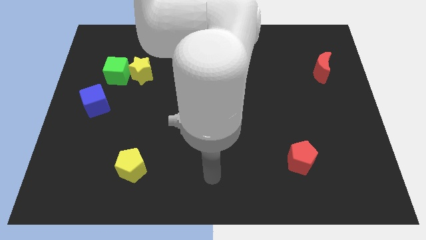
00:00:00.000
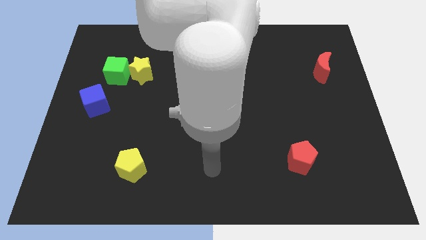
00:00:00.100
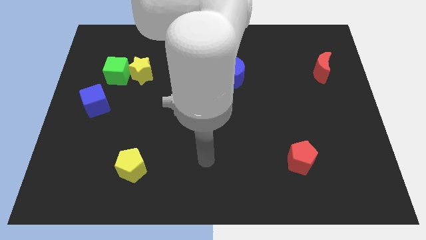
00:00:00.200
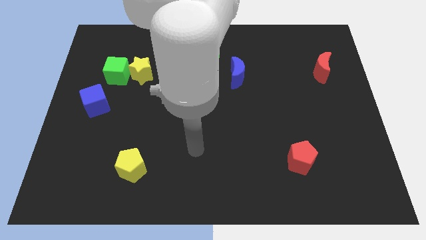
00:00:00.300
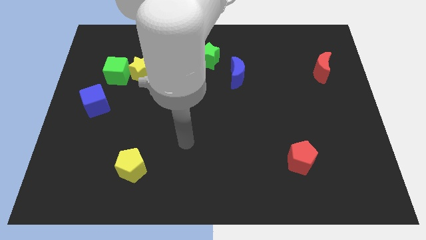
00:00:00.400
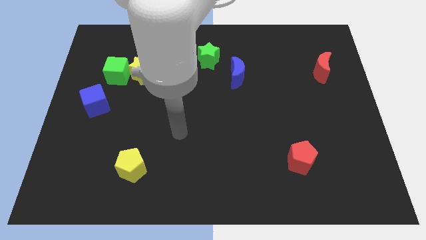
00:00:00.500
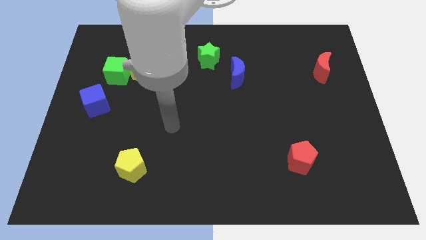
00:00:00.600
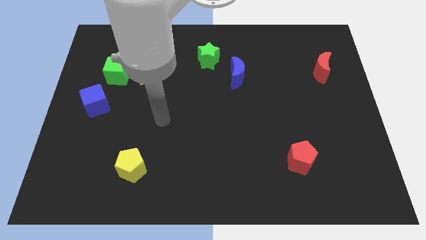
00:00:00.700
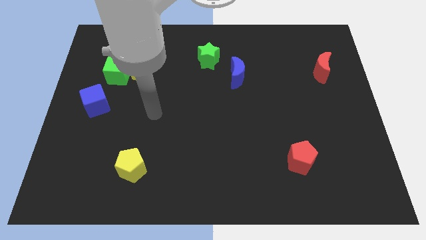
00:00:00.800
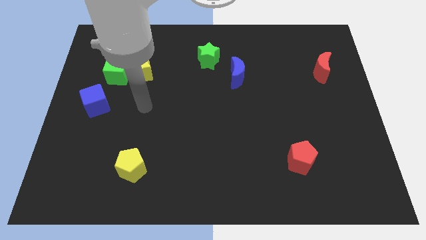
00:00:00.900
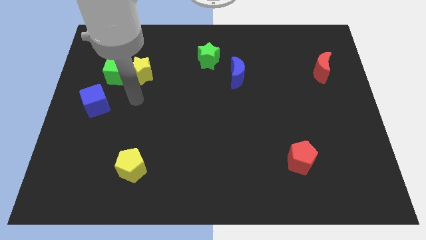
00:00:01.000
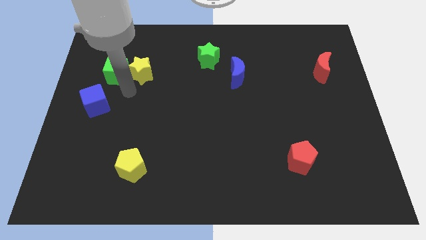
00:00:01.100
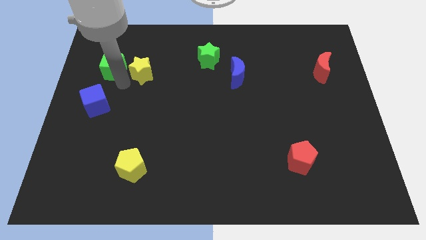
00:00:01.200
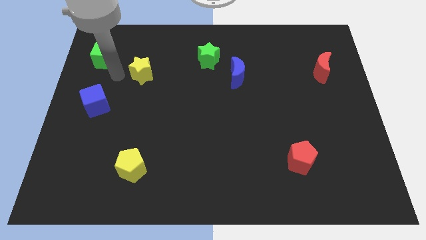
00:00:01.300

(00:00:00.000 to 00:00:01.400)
pull the yellow star apart from the green cube

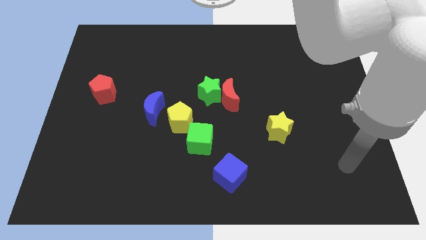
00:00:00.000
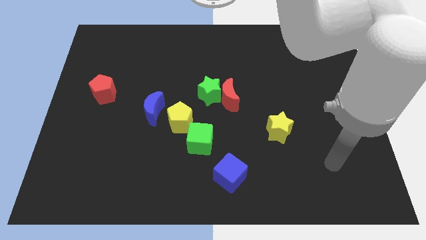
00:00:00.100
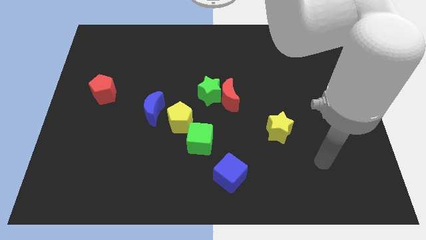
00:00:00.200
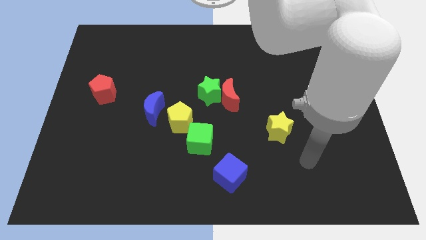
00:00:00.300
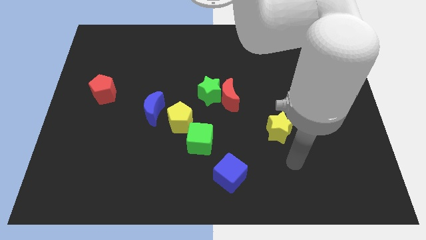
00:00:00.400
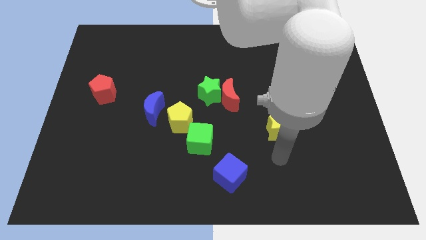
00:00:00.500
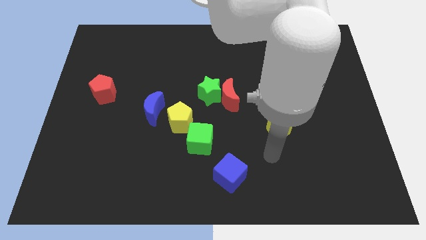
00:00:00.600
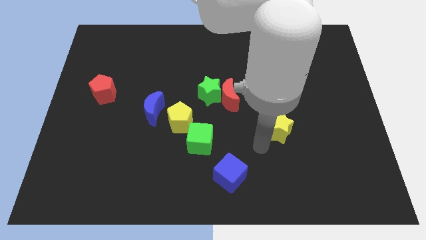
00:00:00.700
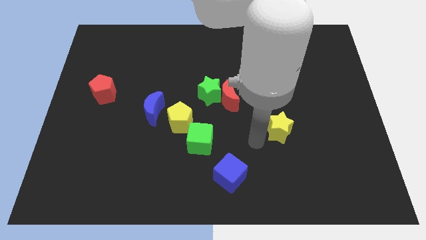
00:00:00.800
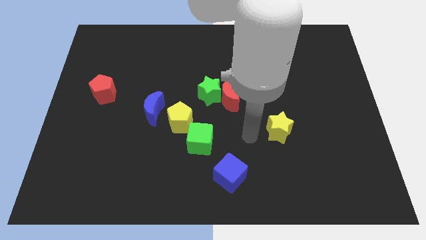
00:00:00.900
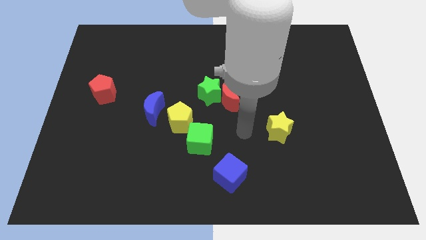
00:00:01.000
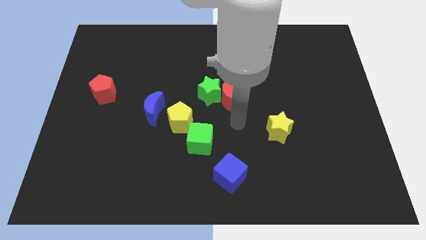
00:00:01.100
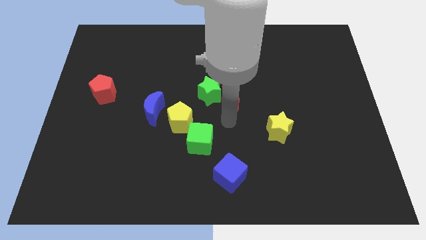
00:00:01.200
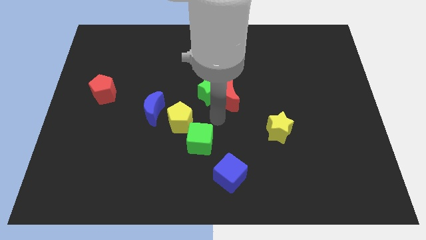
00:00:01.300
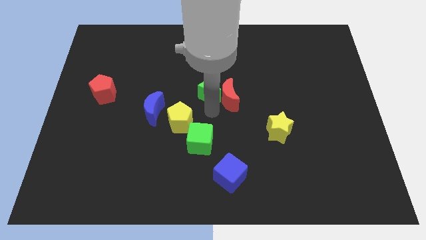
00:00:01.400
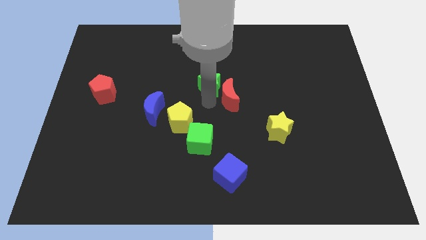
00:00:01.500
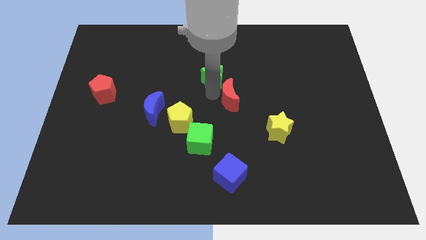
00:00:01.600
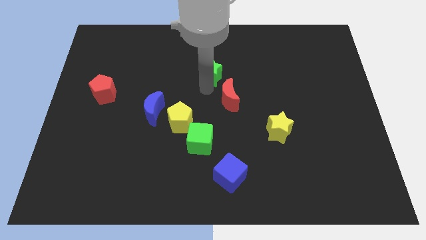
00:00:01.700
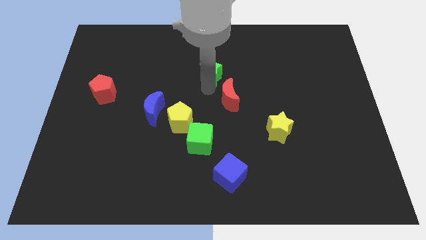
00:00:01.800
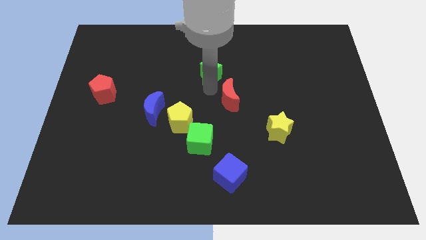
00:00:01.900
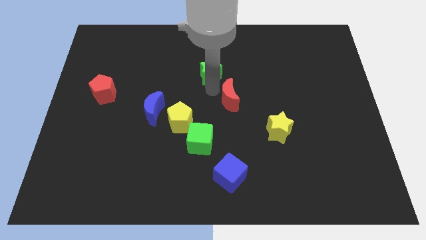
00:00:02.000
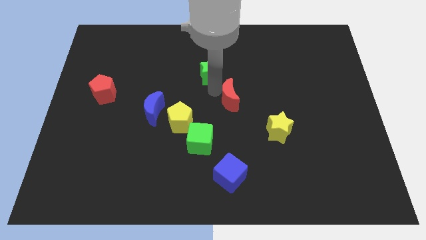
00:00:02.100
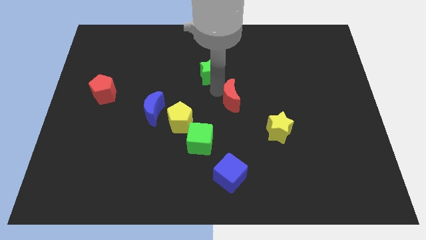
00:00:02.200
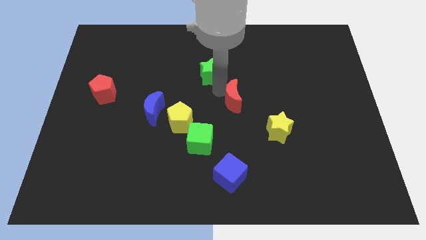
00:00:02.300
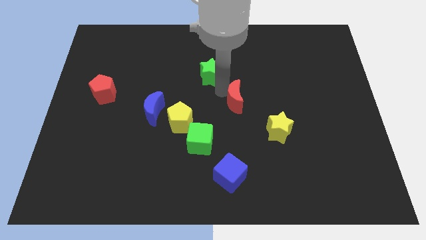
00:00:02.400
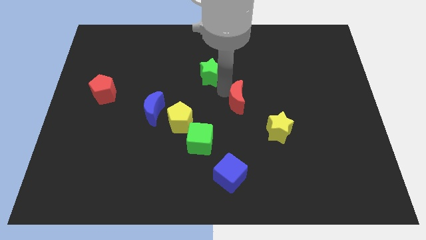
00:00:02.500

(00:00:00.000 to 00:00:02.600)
separate the red moon from the green star

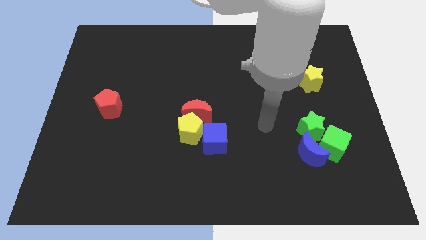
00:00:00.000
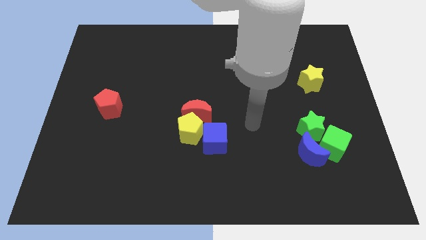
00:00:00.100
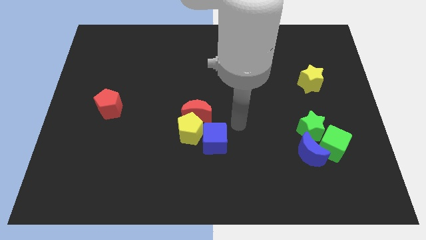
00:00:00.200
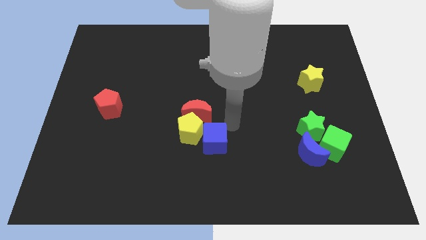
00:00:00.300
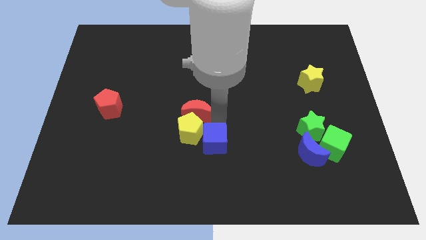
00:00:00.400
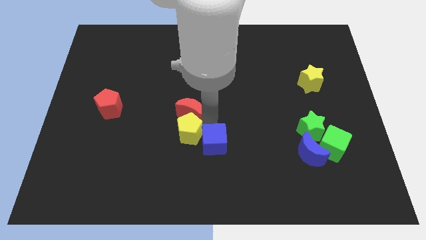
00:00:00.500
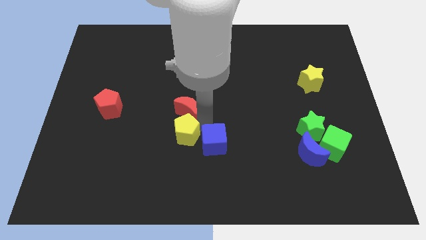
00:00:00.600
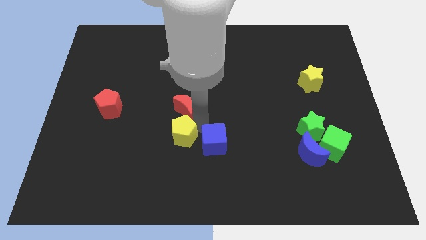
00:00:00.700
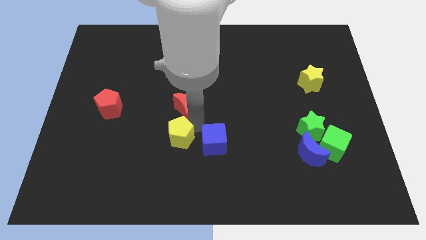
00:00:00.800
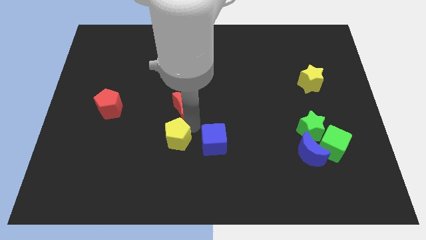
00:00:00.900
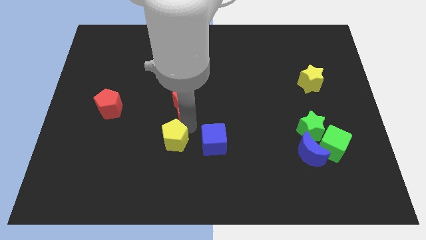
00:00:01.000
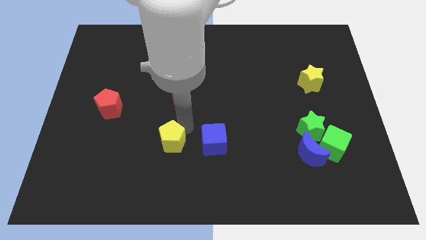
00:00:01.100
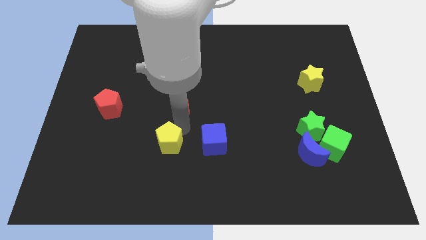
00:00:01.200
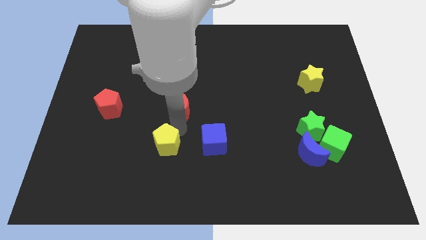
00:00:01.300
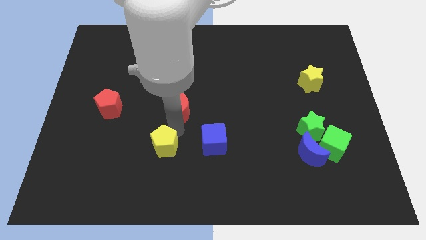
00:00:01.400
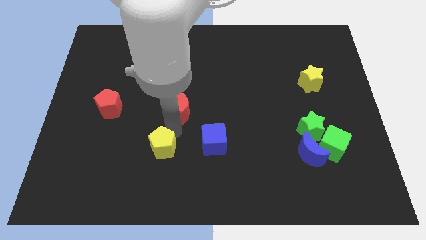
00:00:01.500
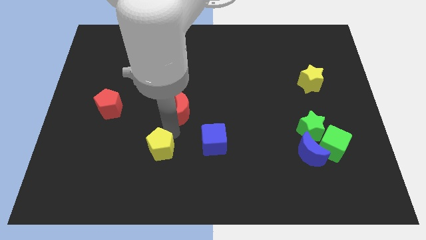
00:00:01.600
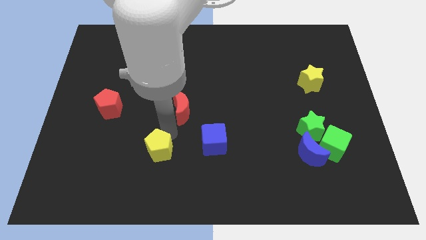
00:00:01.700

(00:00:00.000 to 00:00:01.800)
separate the yellow pentagon from the red moon and blue cube

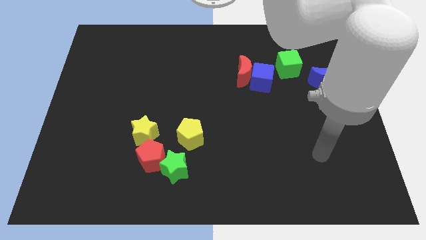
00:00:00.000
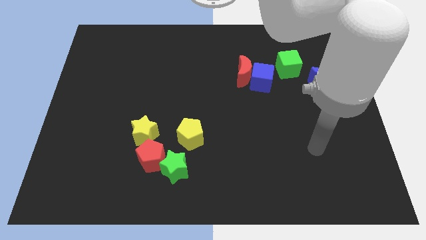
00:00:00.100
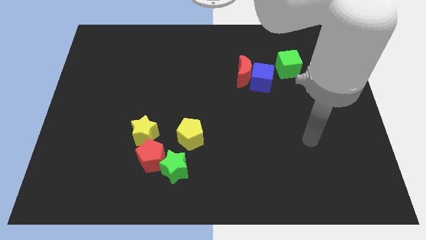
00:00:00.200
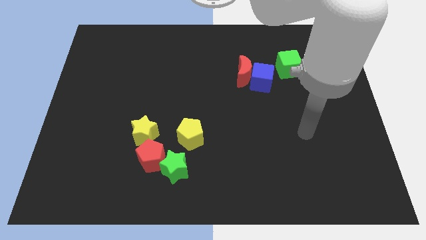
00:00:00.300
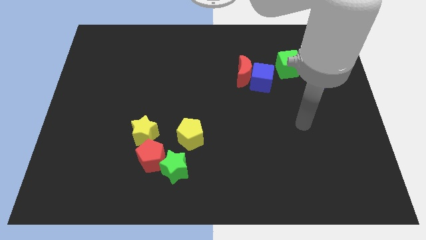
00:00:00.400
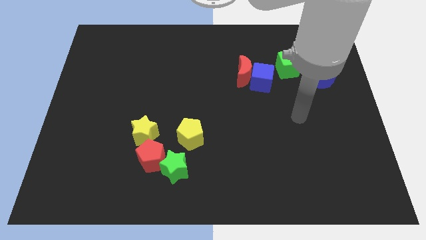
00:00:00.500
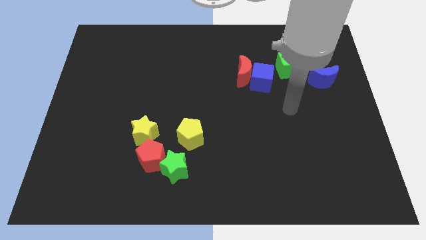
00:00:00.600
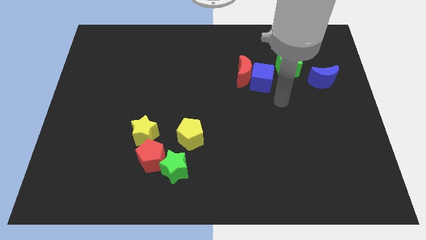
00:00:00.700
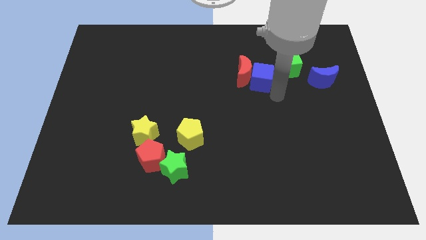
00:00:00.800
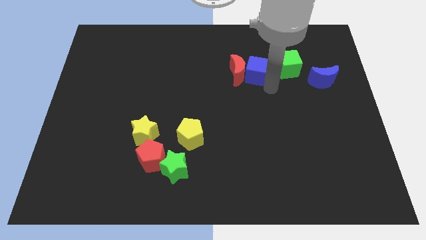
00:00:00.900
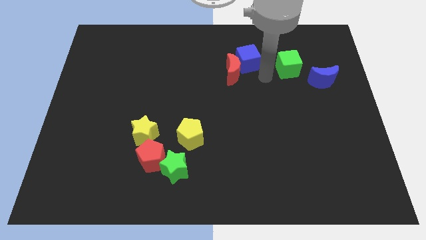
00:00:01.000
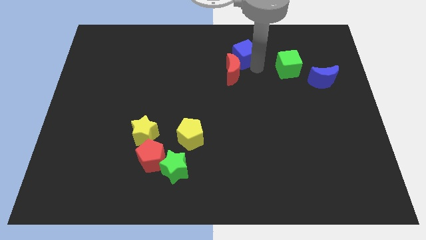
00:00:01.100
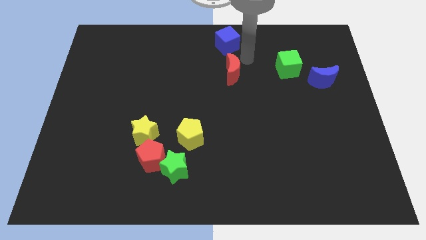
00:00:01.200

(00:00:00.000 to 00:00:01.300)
move the red moon away from the blue cube

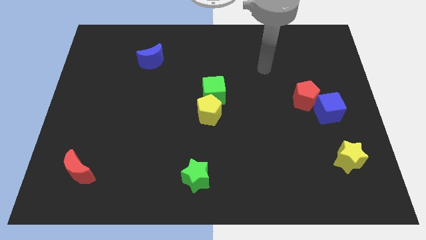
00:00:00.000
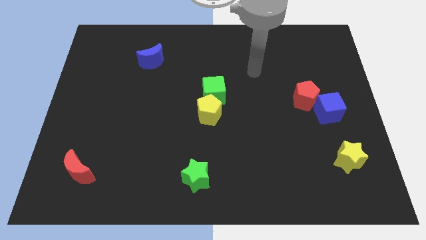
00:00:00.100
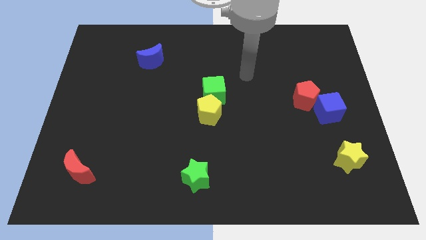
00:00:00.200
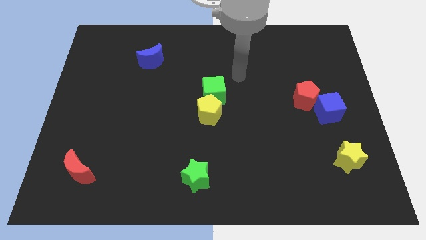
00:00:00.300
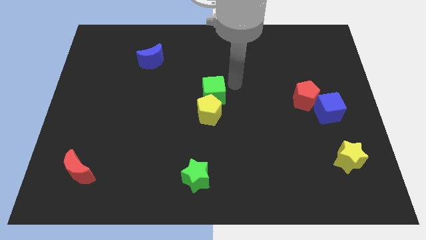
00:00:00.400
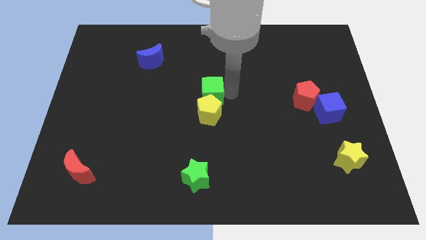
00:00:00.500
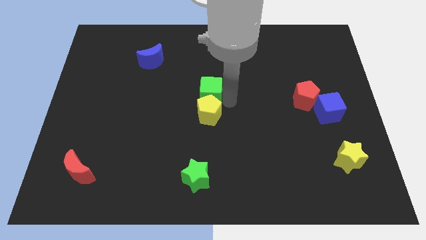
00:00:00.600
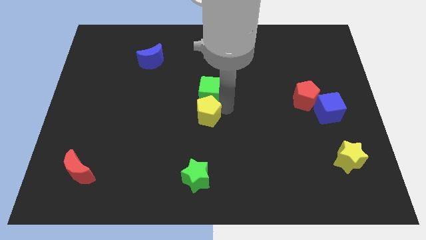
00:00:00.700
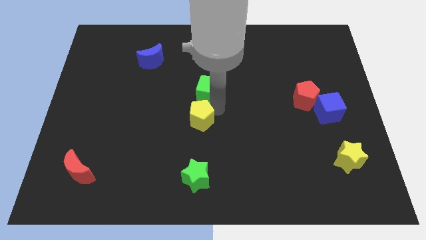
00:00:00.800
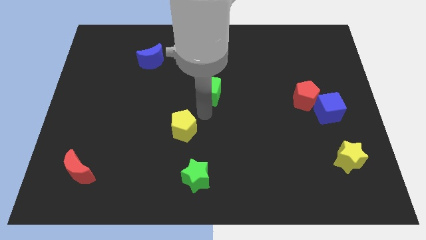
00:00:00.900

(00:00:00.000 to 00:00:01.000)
move the green cube away from the yellow pentagon

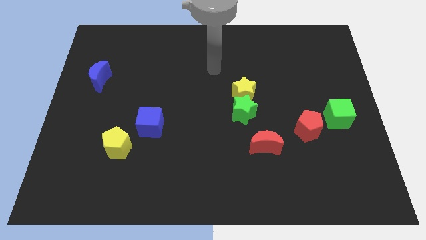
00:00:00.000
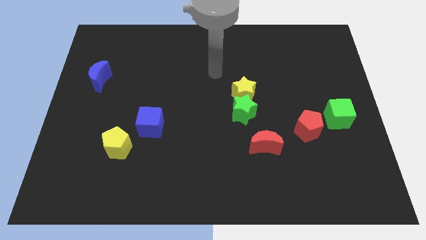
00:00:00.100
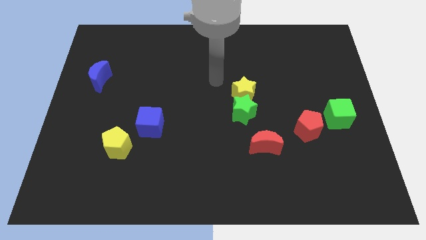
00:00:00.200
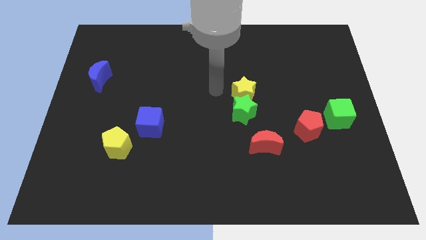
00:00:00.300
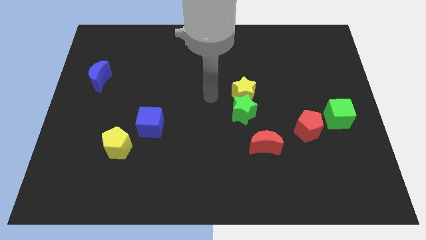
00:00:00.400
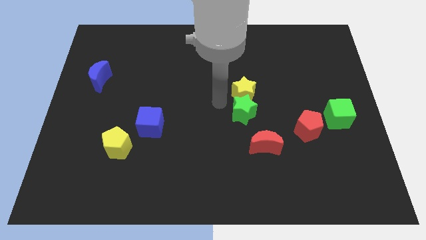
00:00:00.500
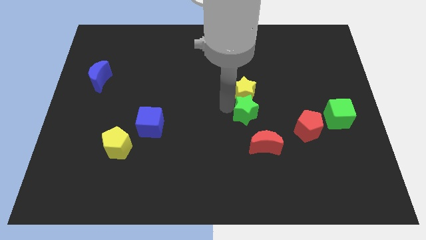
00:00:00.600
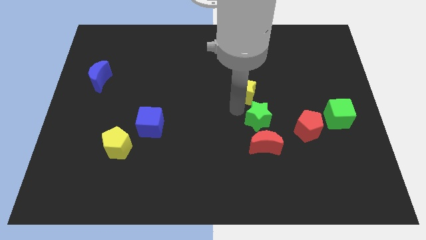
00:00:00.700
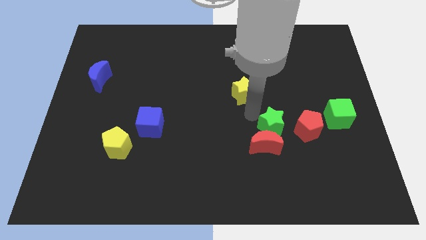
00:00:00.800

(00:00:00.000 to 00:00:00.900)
move the yellow star away from the green star

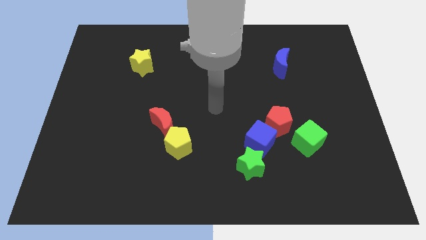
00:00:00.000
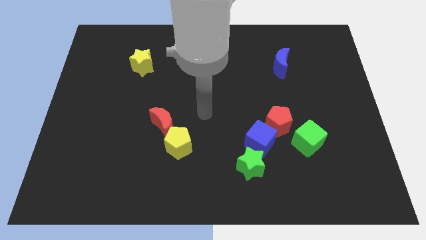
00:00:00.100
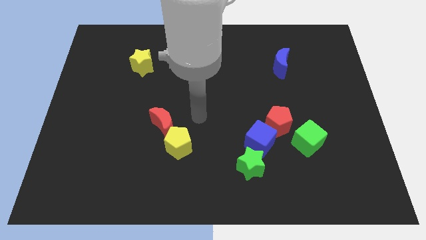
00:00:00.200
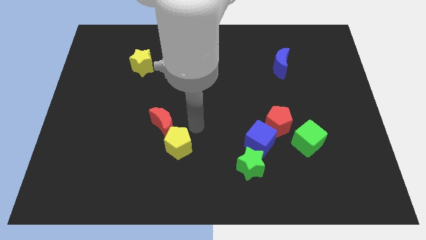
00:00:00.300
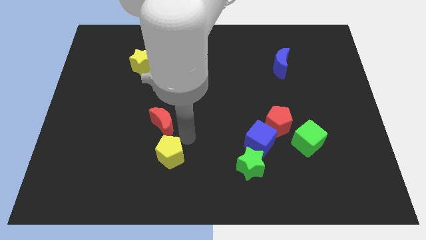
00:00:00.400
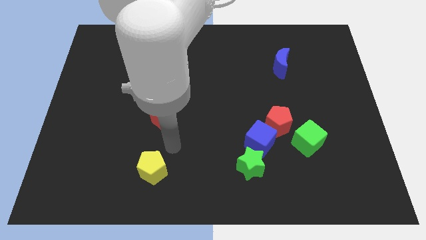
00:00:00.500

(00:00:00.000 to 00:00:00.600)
separate the red moon from the yellow pentagon
